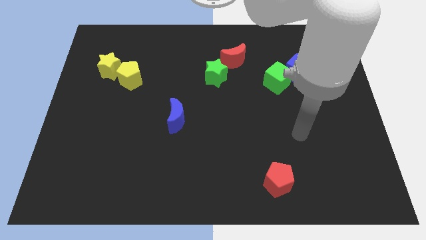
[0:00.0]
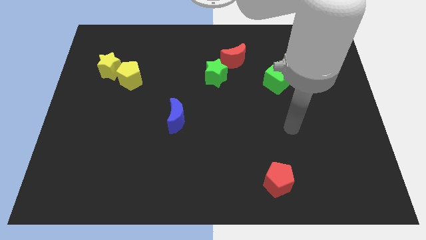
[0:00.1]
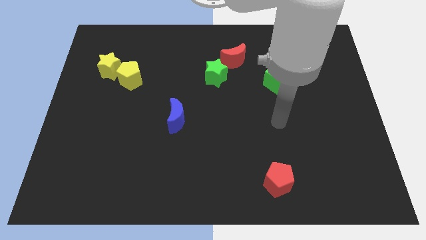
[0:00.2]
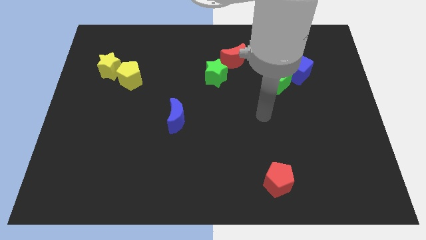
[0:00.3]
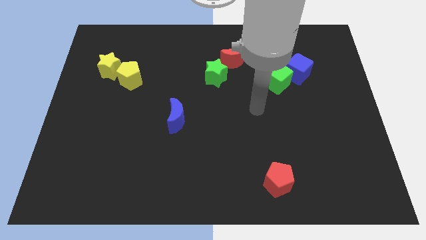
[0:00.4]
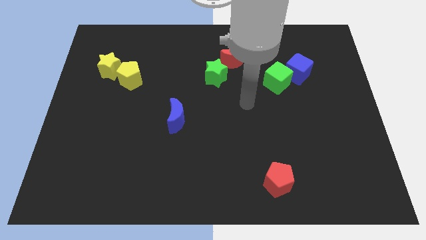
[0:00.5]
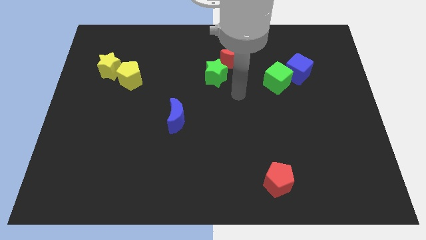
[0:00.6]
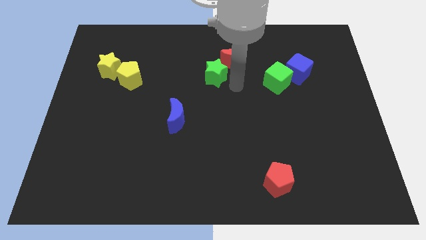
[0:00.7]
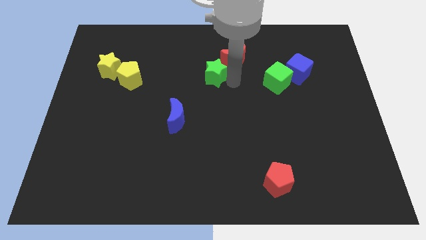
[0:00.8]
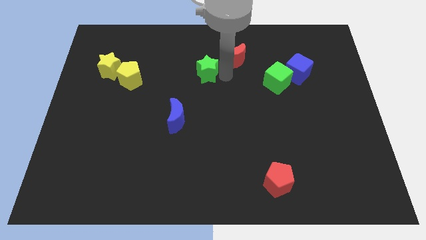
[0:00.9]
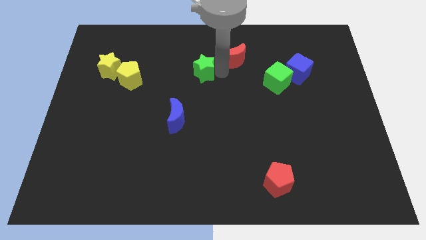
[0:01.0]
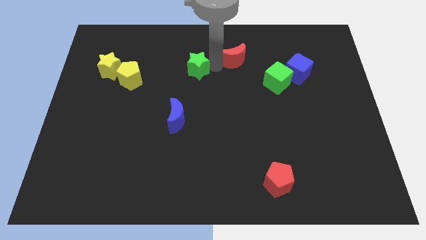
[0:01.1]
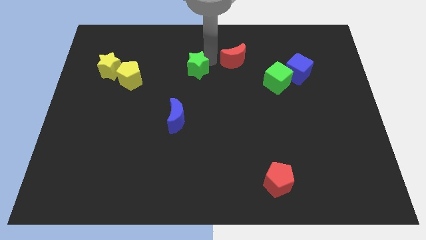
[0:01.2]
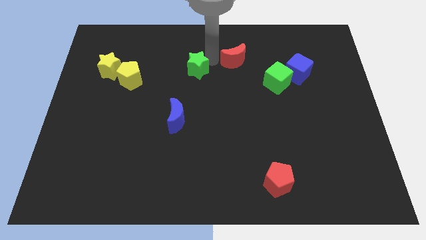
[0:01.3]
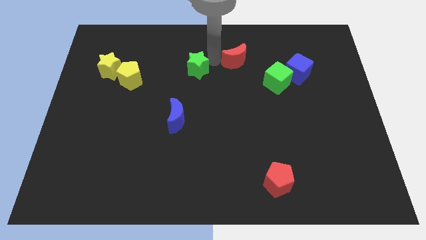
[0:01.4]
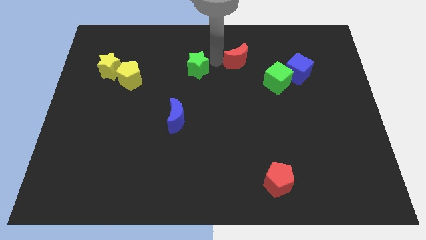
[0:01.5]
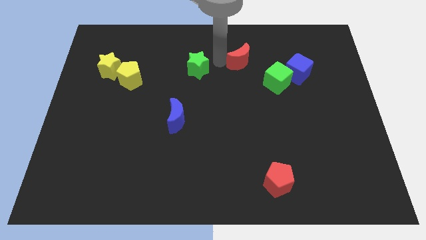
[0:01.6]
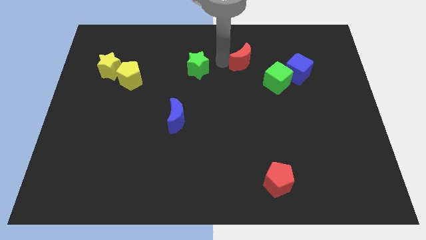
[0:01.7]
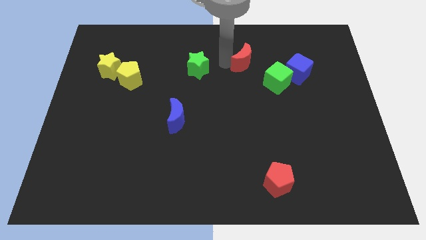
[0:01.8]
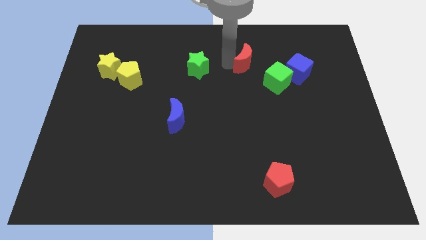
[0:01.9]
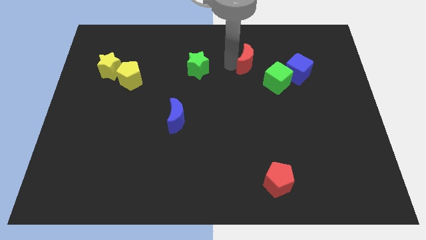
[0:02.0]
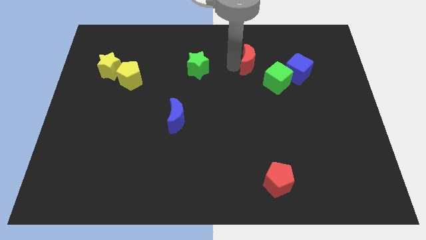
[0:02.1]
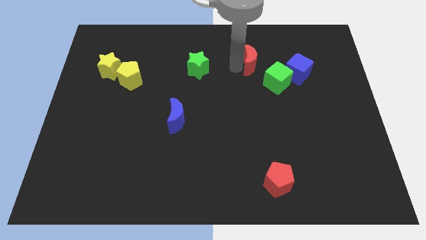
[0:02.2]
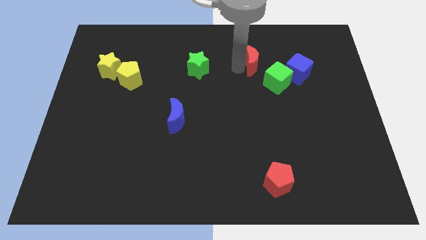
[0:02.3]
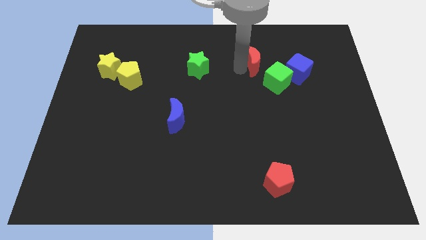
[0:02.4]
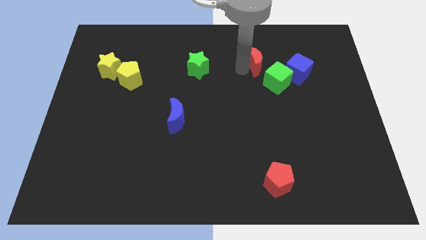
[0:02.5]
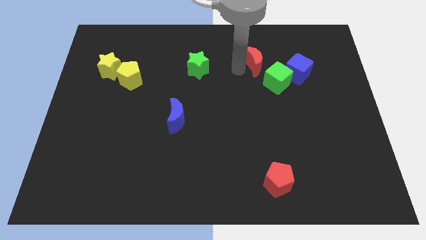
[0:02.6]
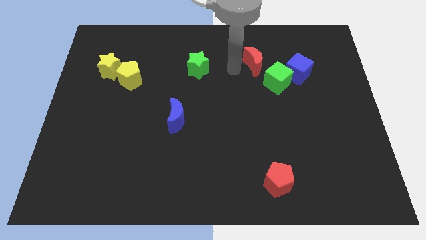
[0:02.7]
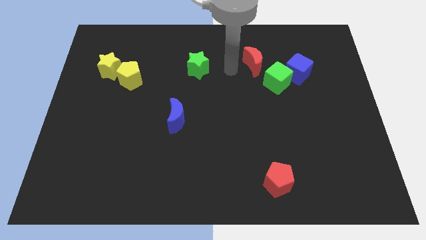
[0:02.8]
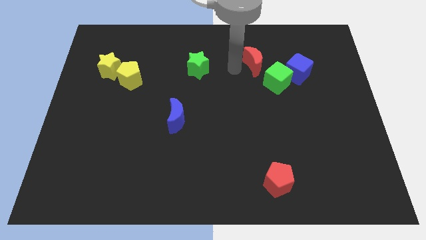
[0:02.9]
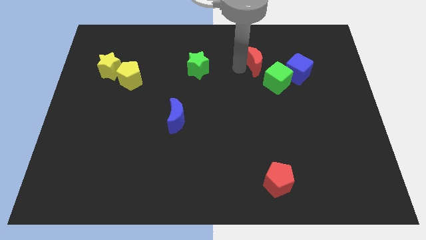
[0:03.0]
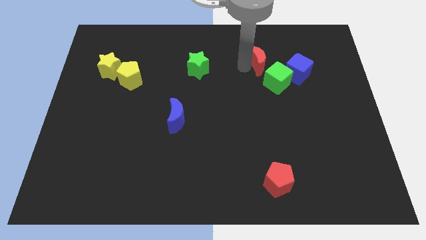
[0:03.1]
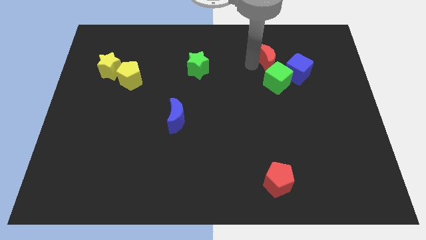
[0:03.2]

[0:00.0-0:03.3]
slightly push the red moon to the right

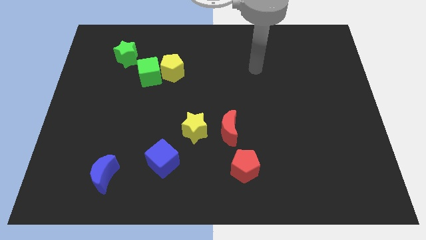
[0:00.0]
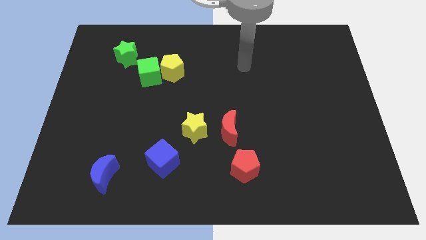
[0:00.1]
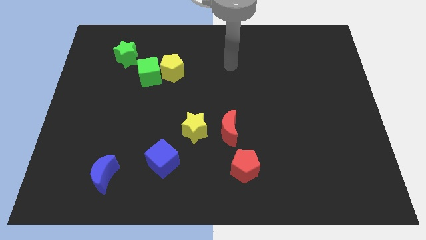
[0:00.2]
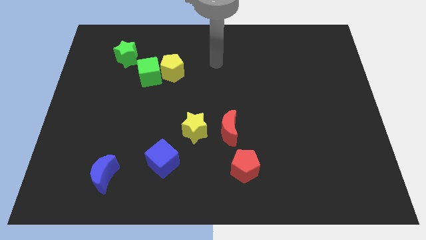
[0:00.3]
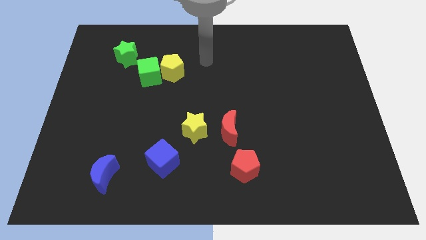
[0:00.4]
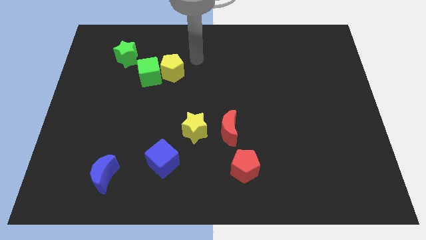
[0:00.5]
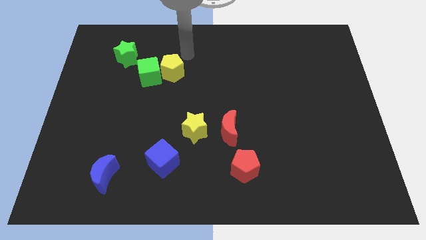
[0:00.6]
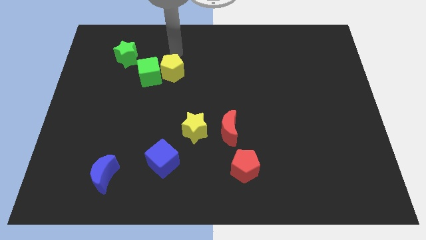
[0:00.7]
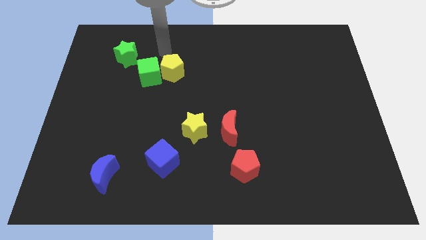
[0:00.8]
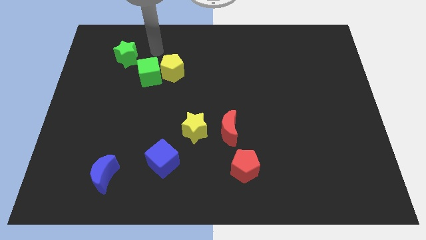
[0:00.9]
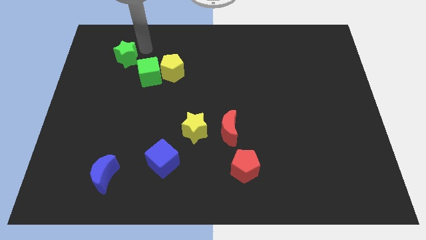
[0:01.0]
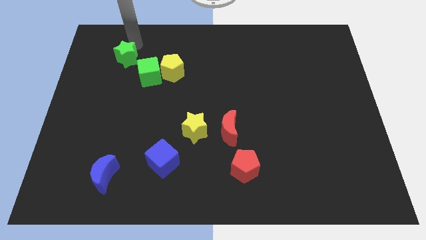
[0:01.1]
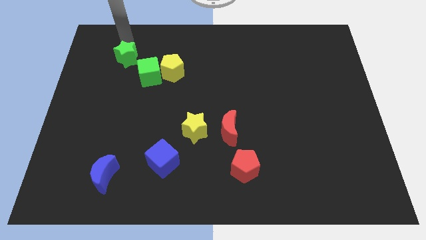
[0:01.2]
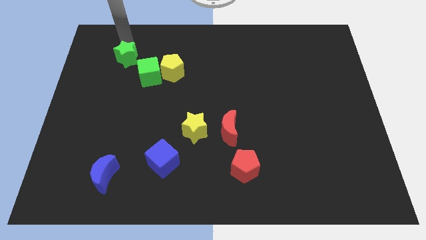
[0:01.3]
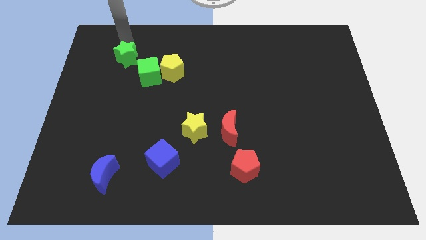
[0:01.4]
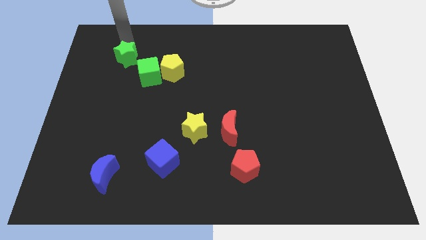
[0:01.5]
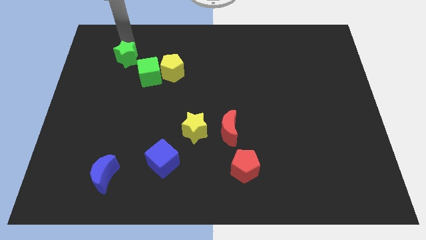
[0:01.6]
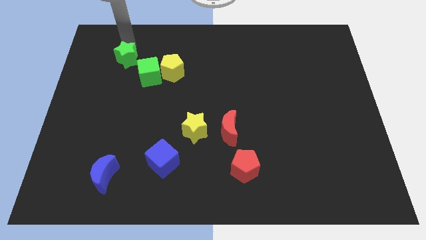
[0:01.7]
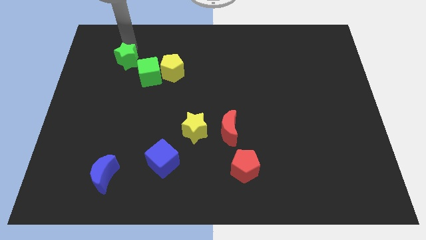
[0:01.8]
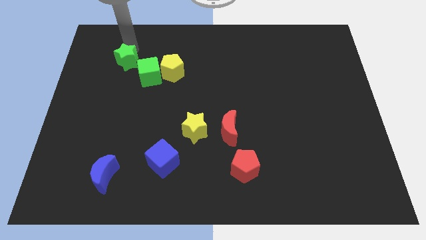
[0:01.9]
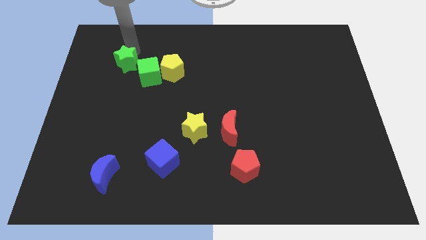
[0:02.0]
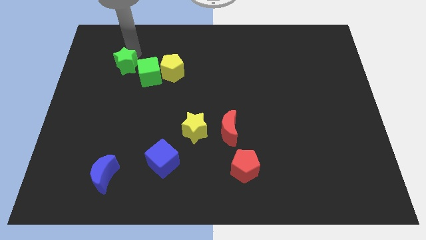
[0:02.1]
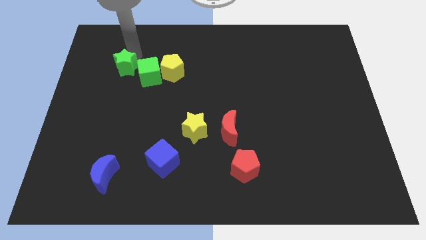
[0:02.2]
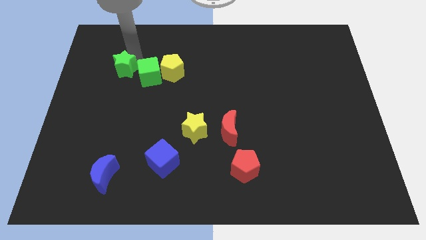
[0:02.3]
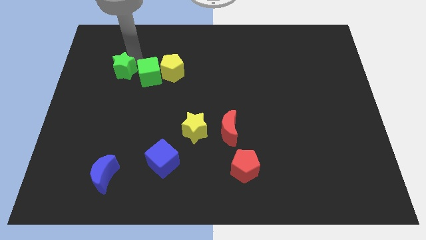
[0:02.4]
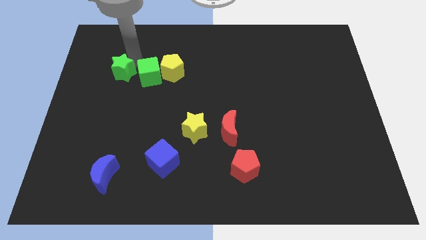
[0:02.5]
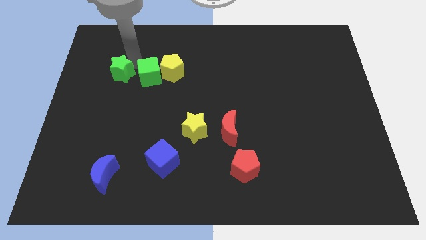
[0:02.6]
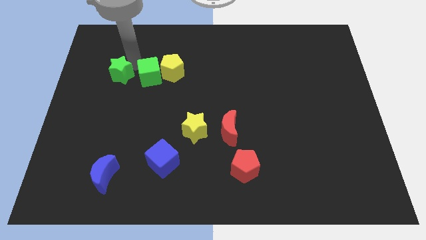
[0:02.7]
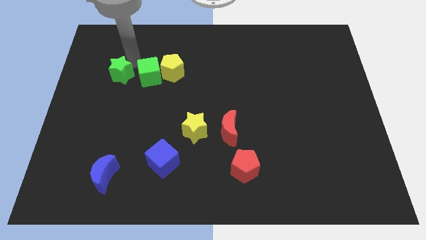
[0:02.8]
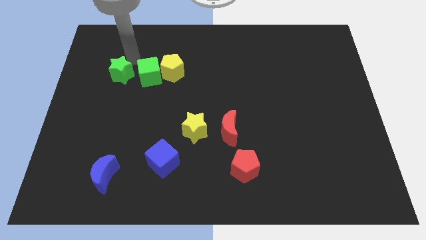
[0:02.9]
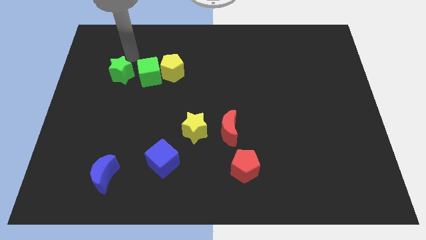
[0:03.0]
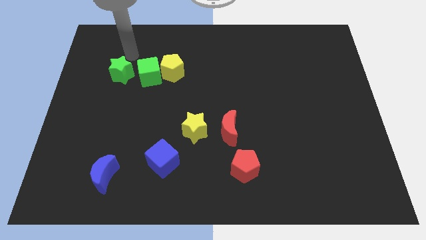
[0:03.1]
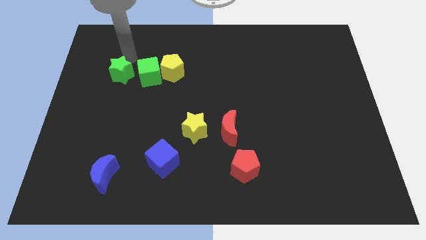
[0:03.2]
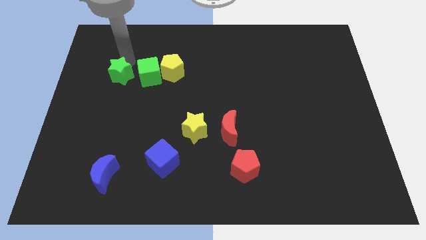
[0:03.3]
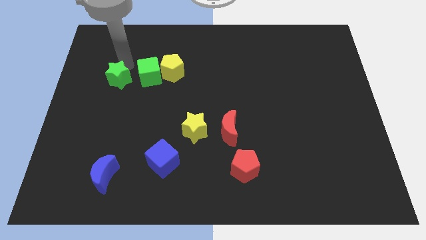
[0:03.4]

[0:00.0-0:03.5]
slightly slide the green star down

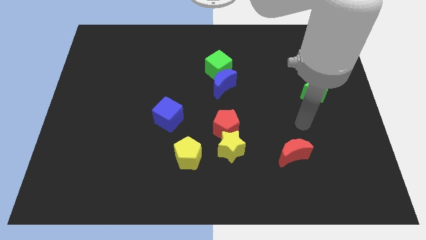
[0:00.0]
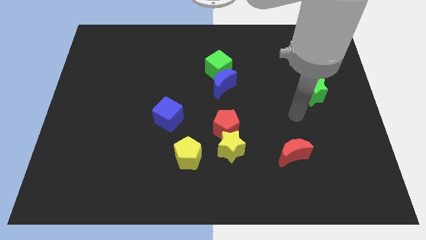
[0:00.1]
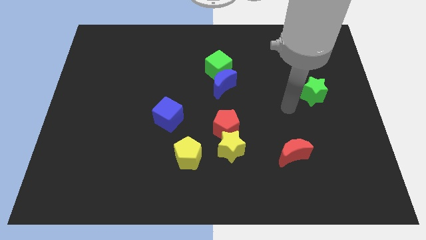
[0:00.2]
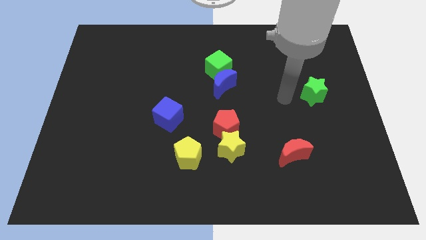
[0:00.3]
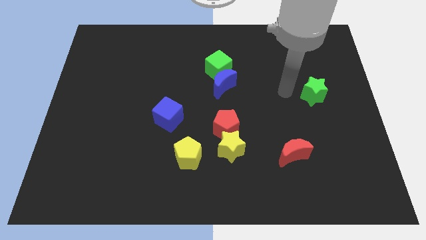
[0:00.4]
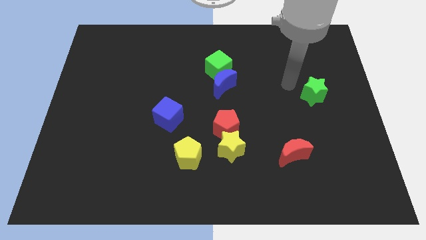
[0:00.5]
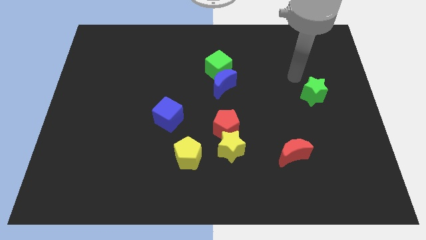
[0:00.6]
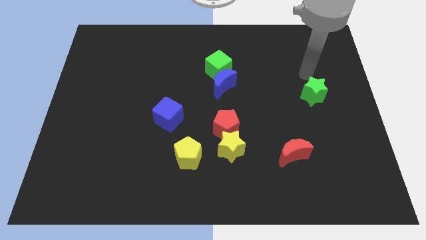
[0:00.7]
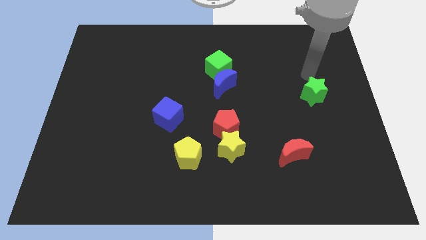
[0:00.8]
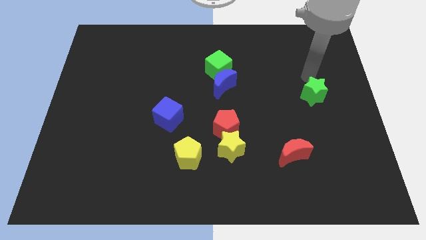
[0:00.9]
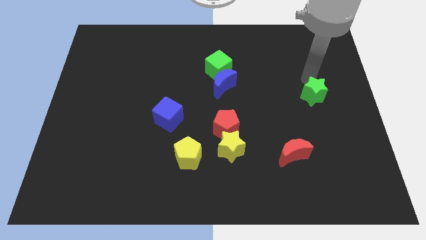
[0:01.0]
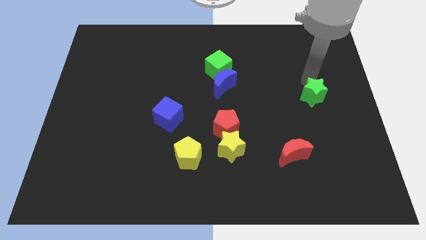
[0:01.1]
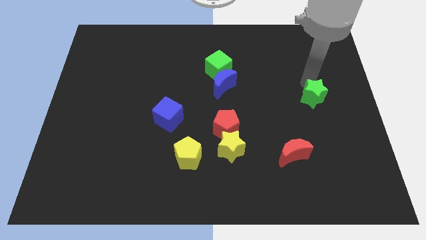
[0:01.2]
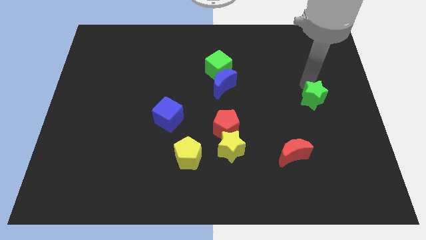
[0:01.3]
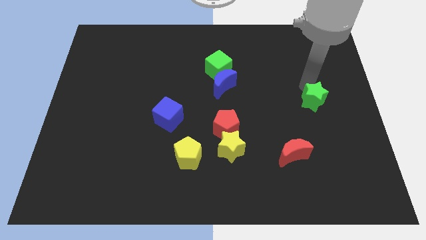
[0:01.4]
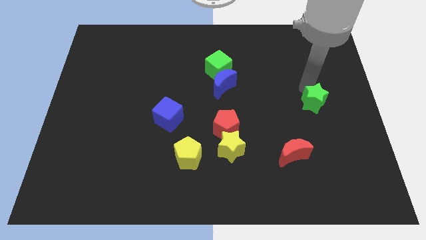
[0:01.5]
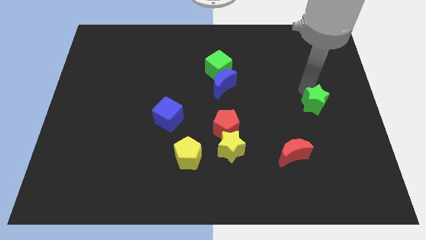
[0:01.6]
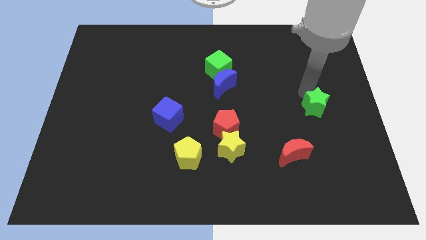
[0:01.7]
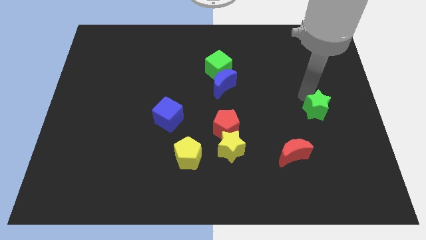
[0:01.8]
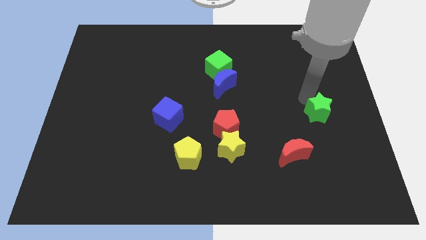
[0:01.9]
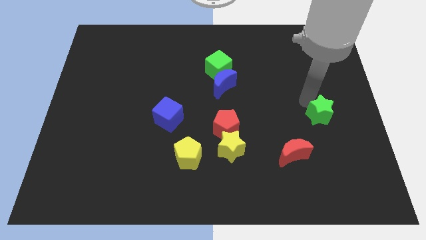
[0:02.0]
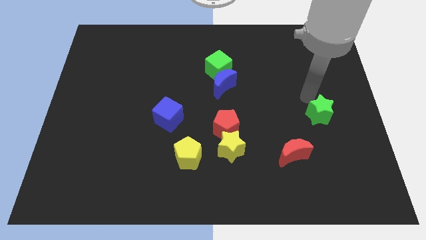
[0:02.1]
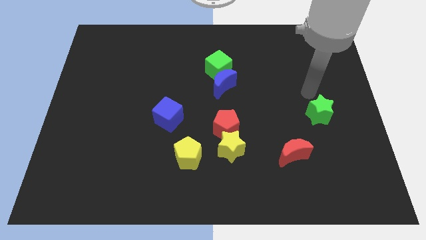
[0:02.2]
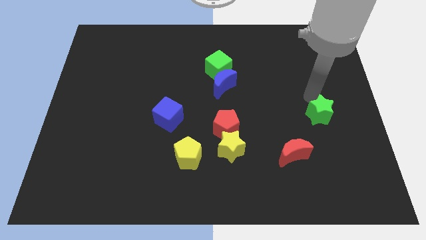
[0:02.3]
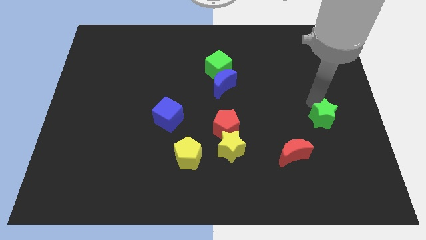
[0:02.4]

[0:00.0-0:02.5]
push the green star slightly down
